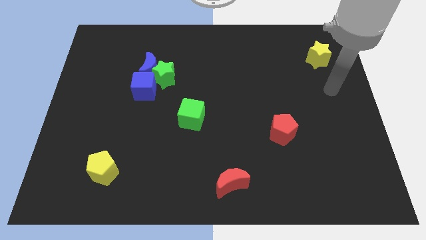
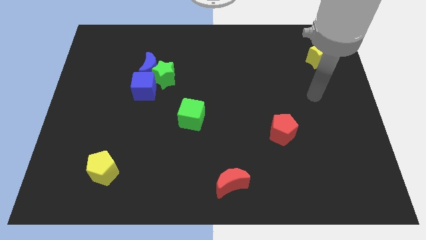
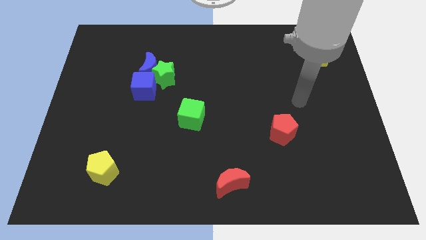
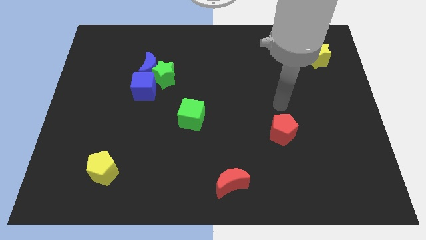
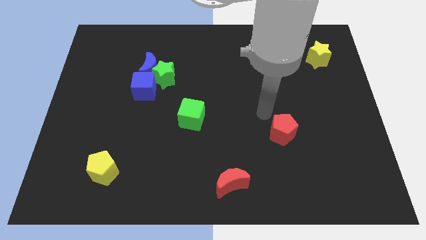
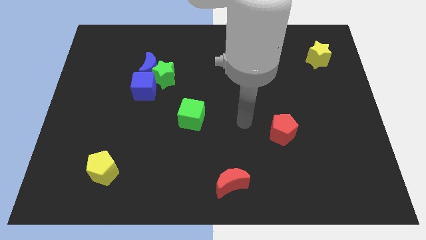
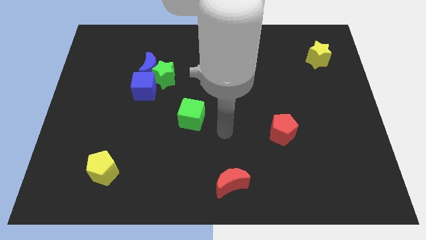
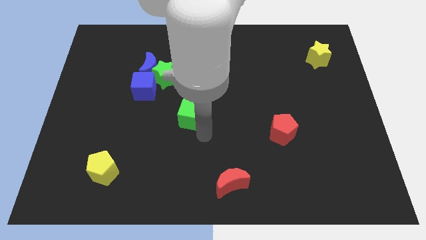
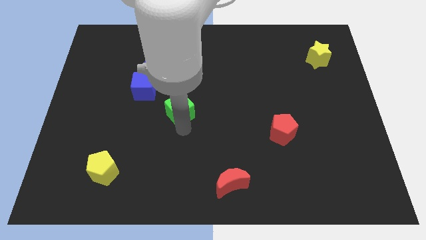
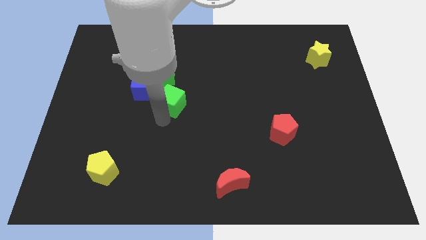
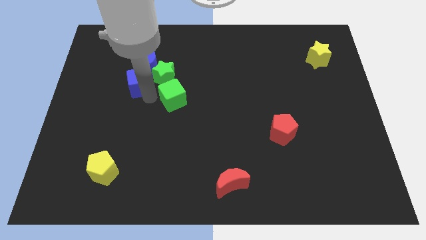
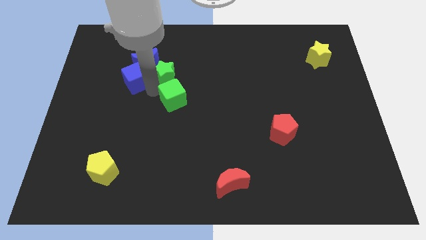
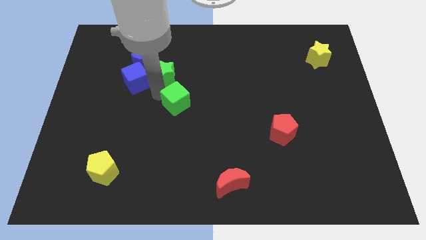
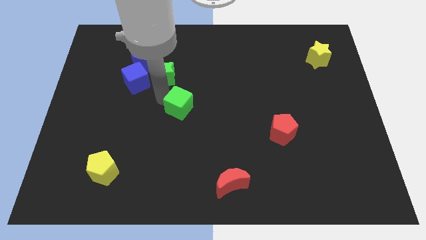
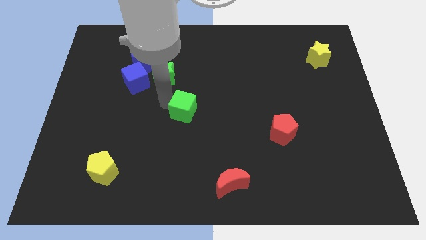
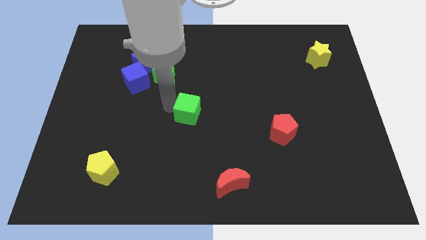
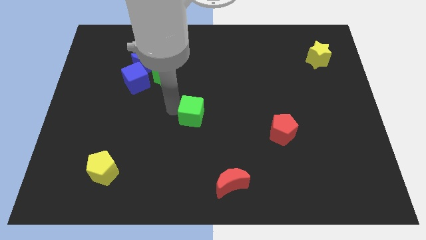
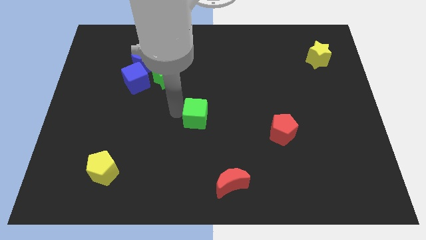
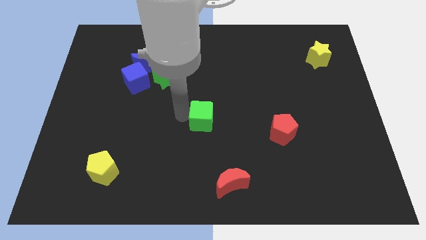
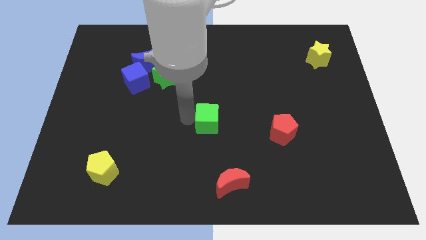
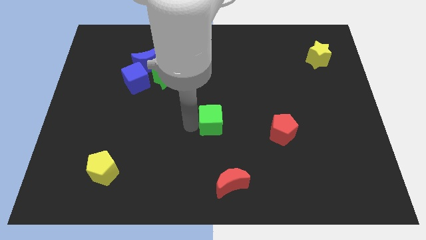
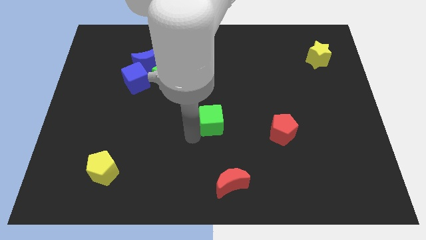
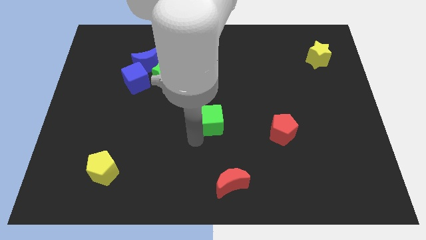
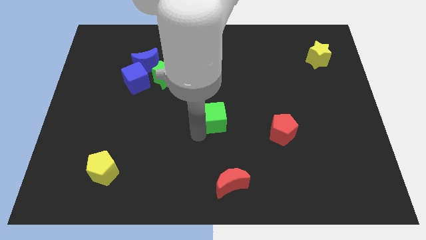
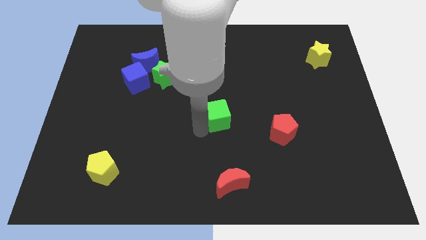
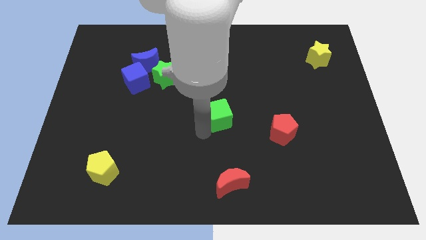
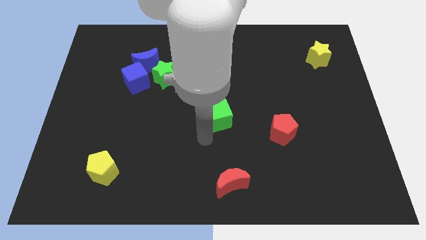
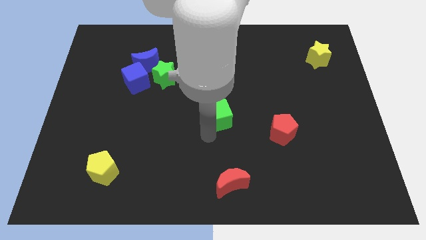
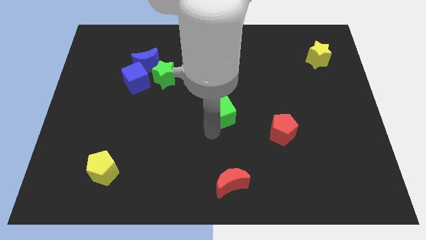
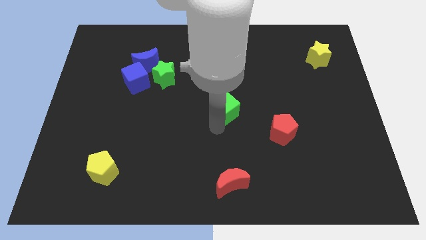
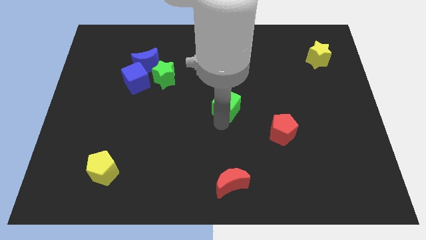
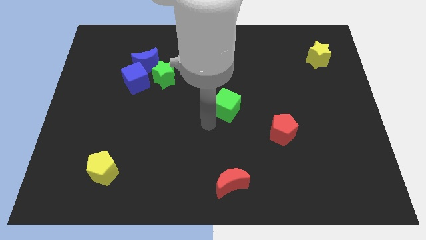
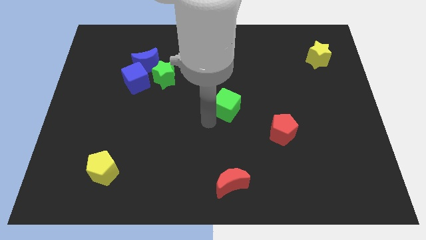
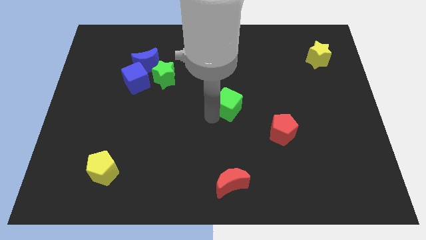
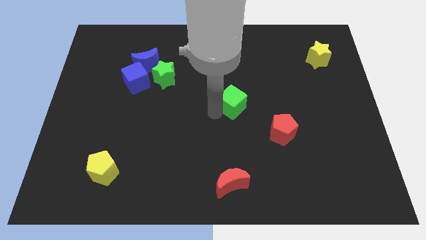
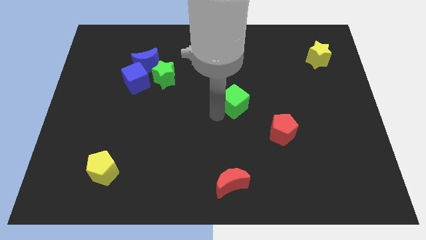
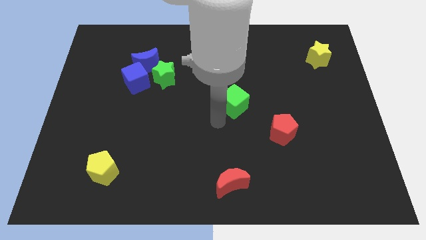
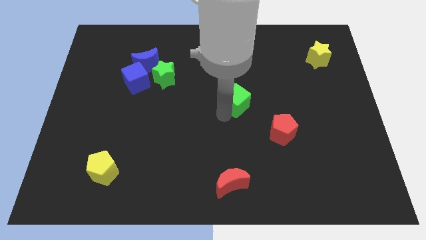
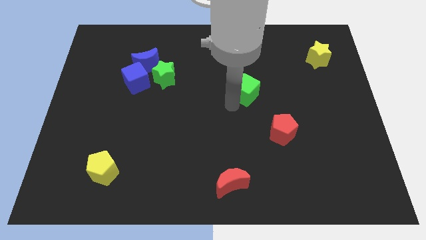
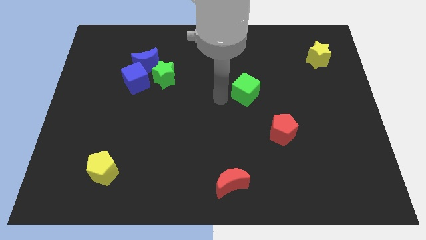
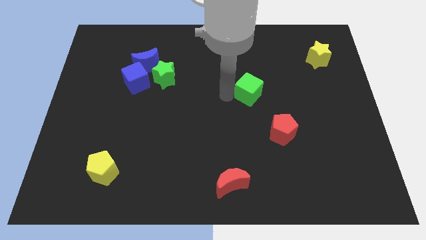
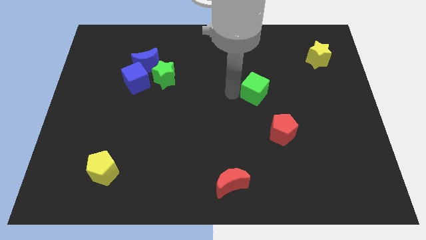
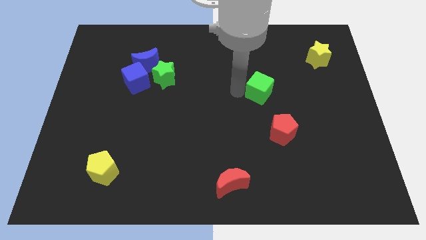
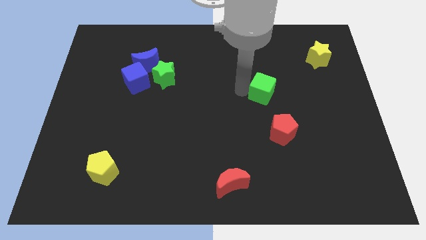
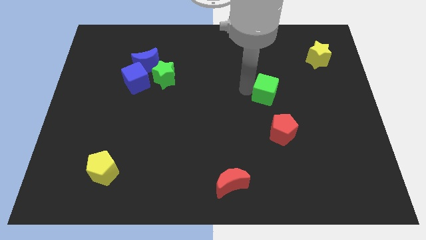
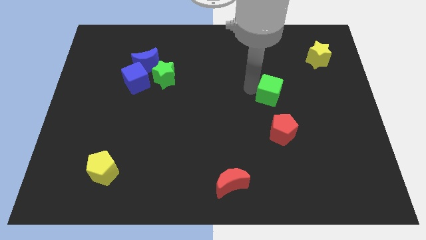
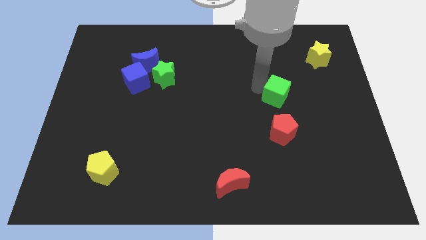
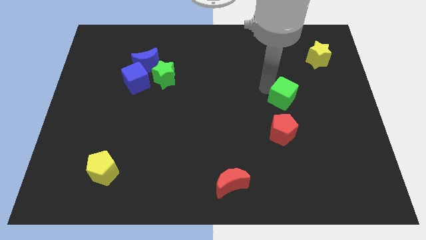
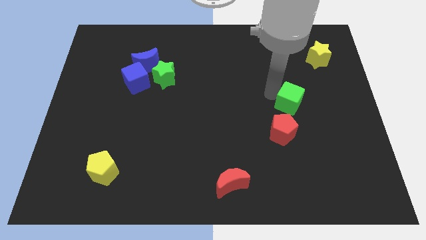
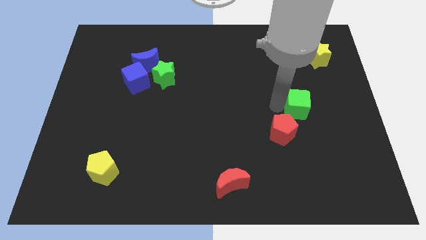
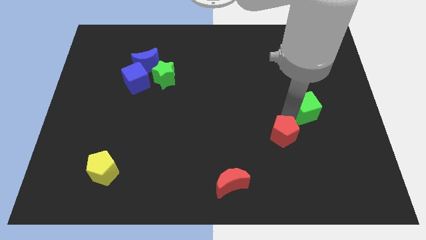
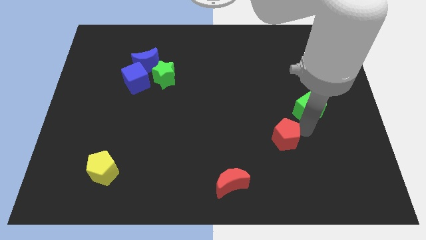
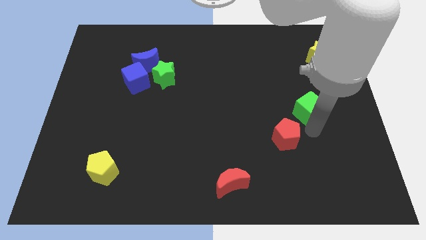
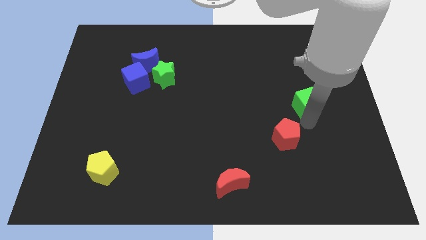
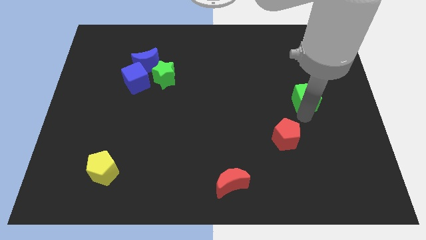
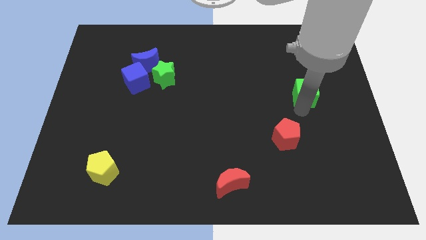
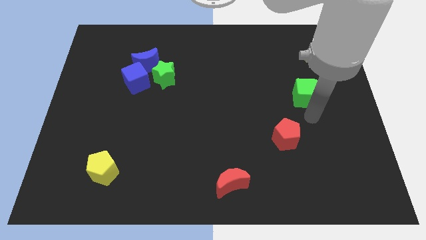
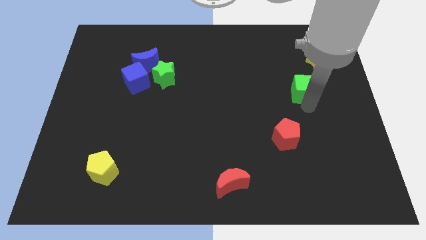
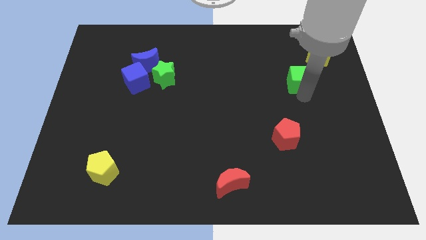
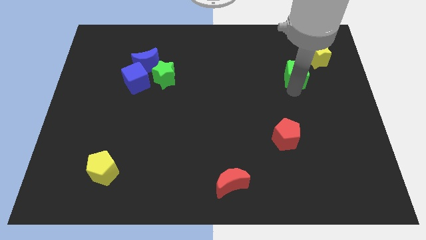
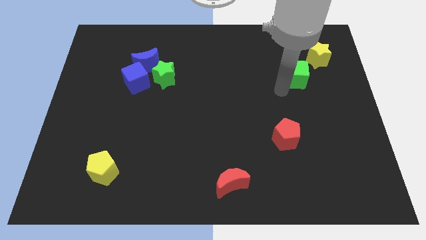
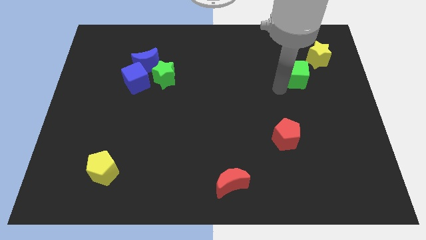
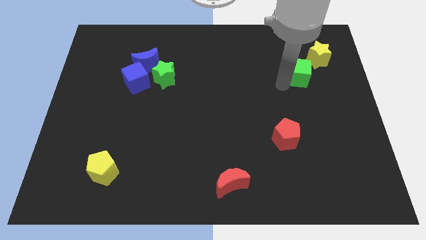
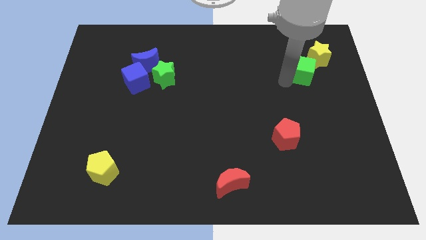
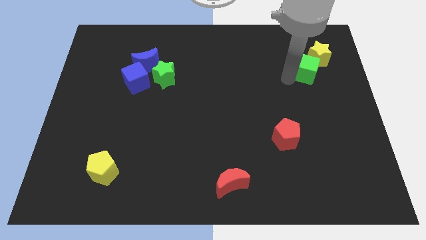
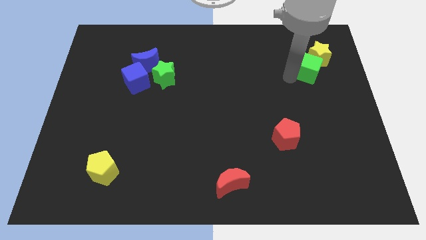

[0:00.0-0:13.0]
push the green cube next to the yellow star

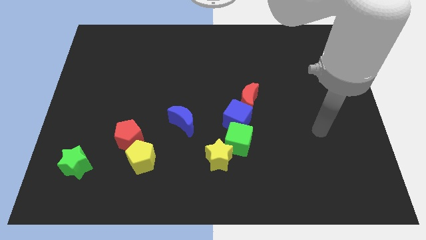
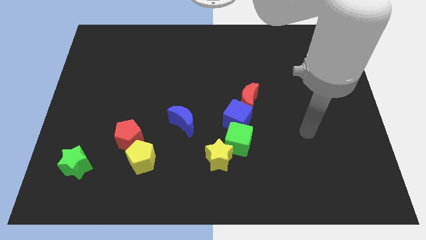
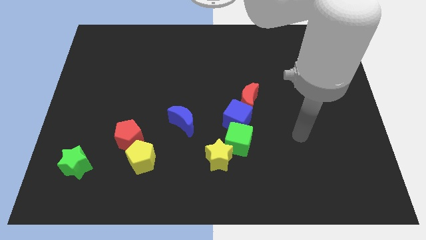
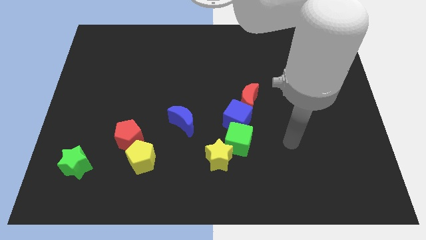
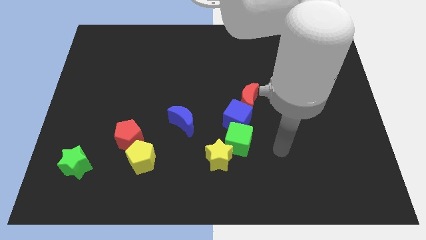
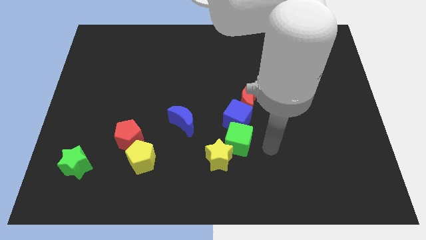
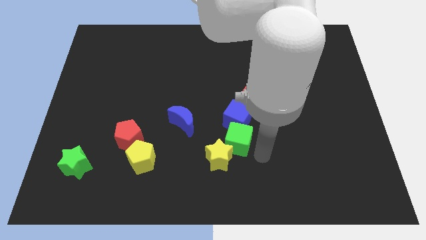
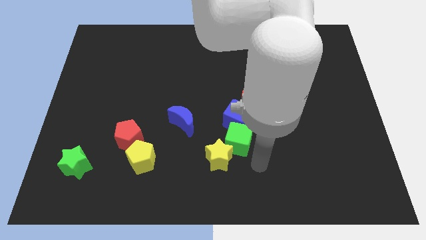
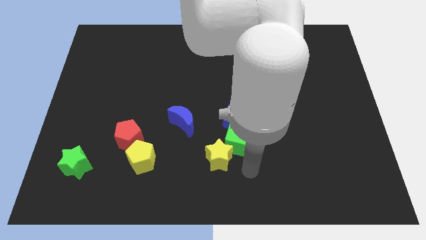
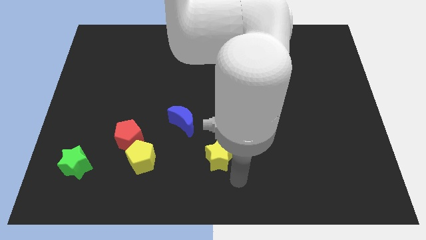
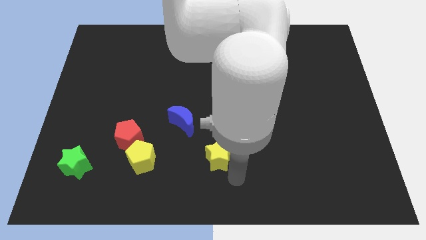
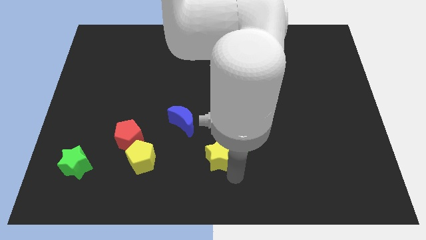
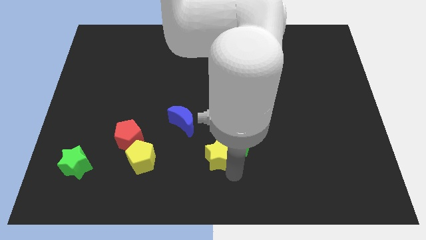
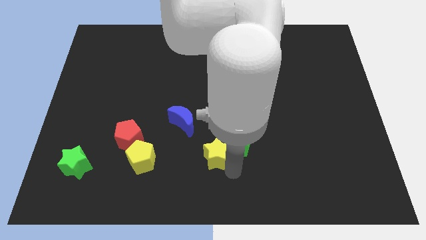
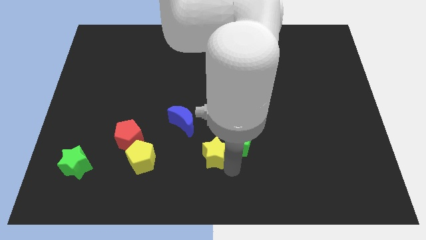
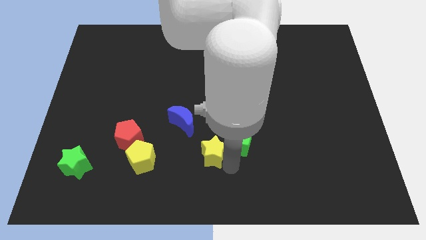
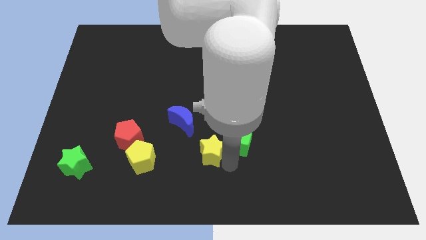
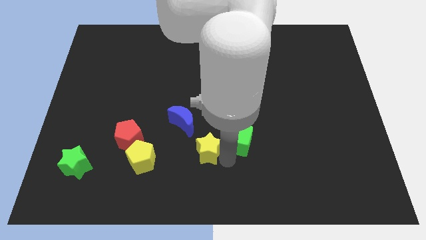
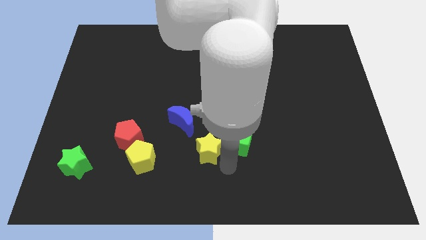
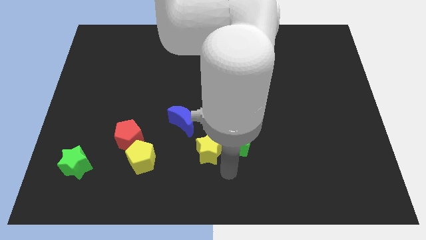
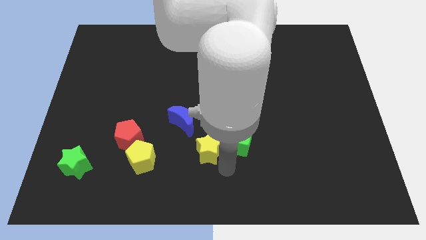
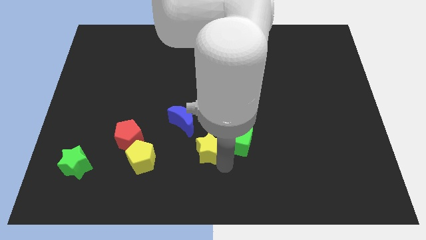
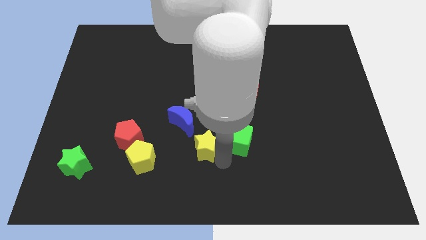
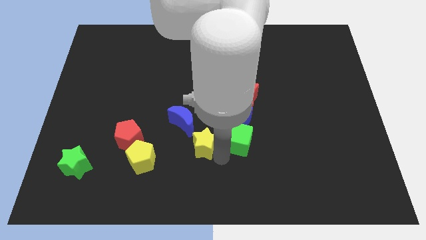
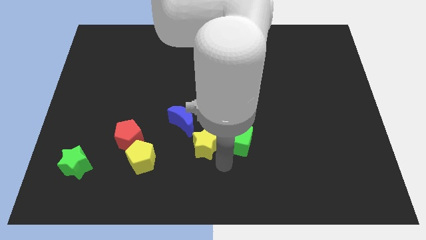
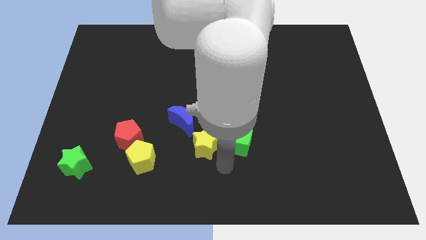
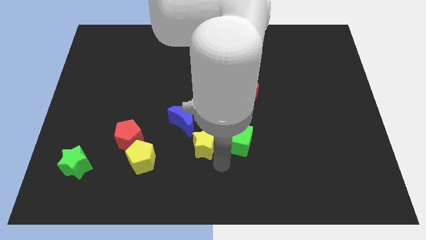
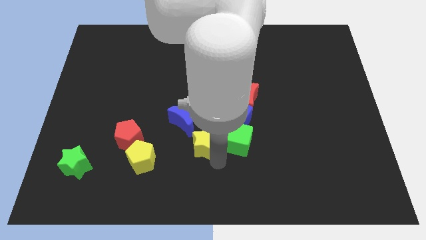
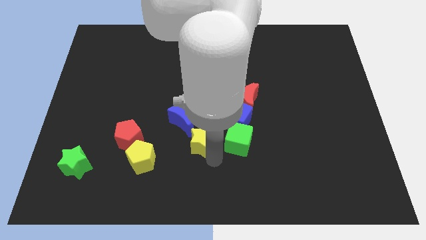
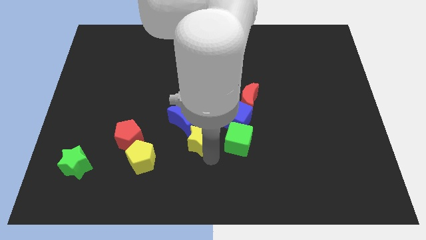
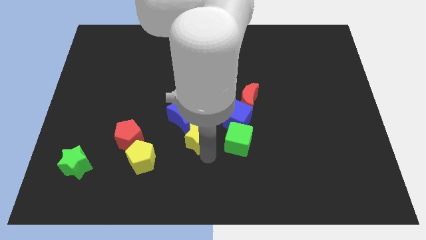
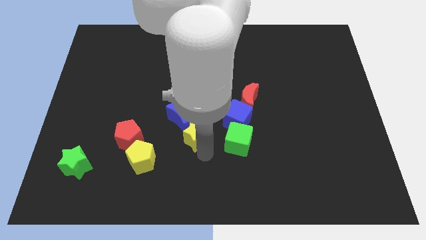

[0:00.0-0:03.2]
move the yellow star next to the blue moon
